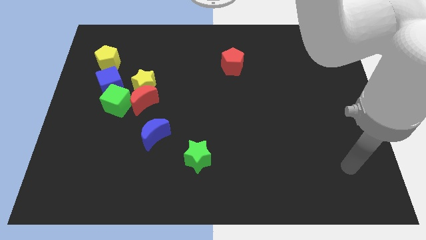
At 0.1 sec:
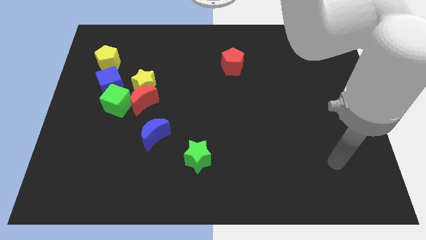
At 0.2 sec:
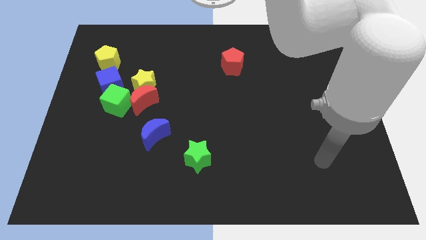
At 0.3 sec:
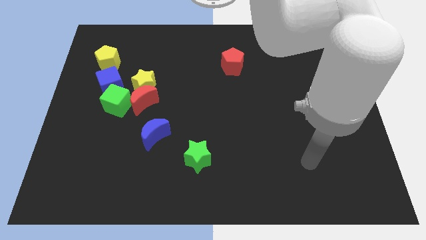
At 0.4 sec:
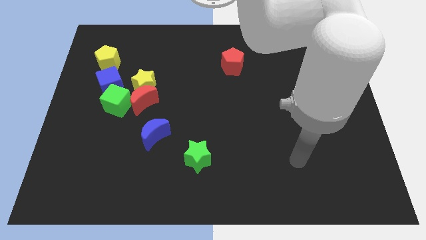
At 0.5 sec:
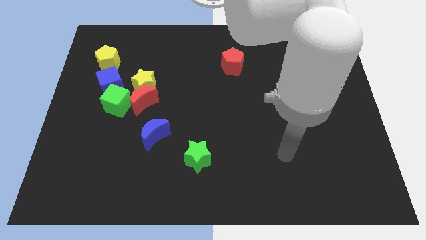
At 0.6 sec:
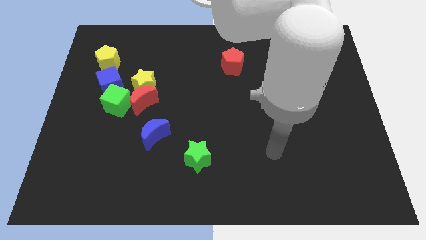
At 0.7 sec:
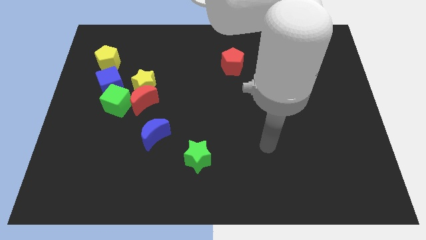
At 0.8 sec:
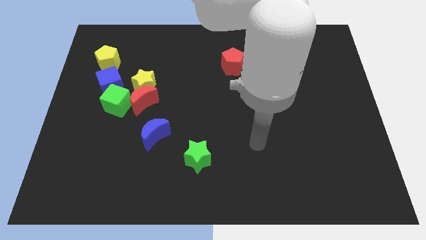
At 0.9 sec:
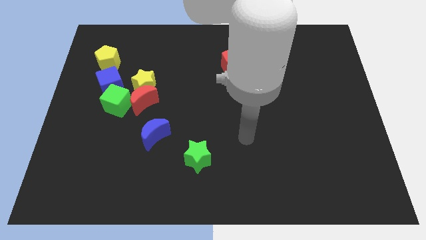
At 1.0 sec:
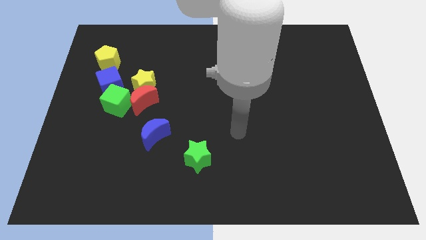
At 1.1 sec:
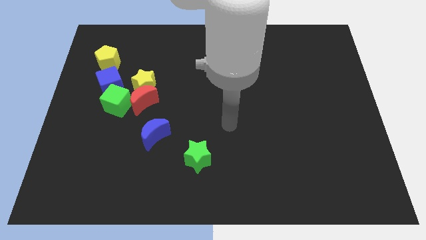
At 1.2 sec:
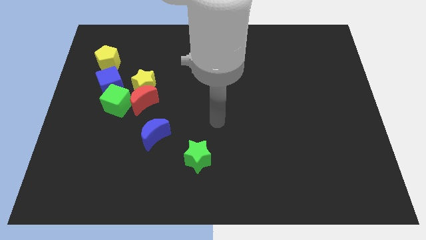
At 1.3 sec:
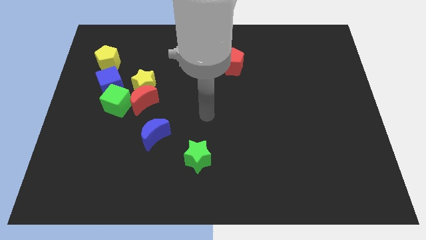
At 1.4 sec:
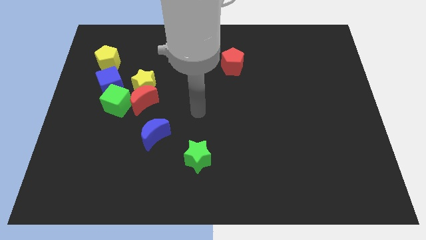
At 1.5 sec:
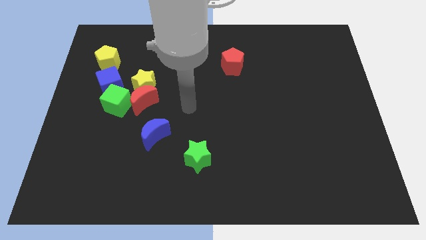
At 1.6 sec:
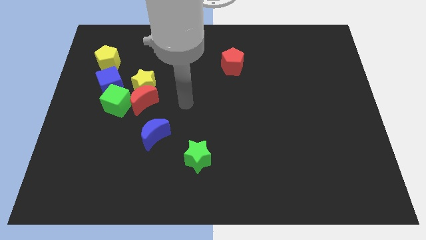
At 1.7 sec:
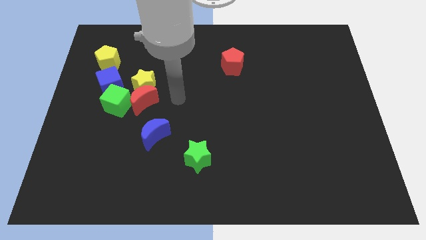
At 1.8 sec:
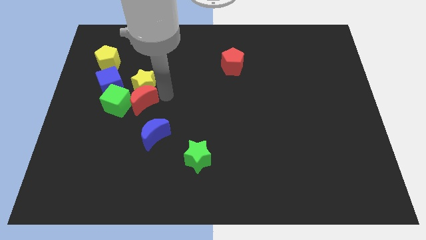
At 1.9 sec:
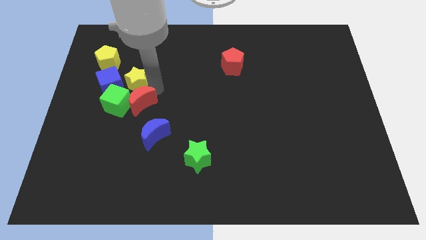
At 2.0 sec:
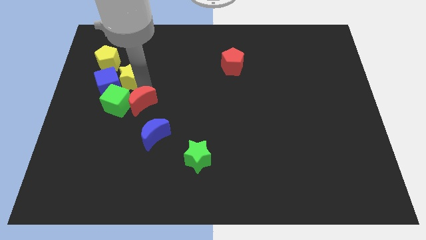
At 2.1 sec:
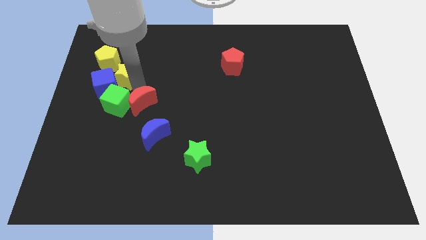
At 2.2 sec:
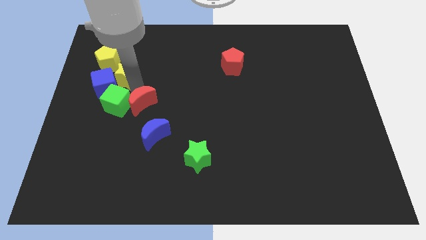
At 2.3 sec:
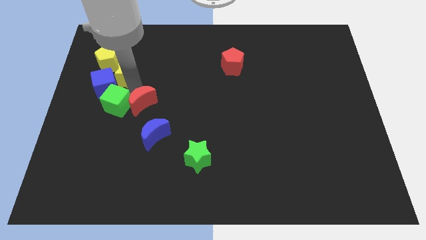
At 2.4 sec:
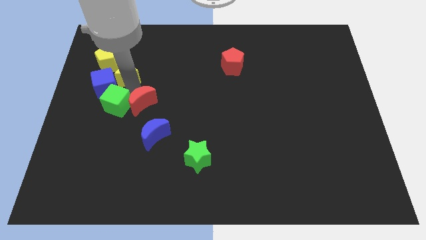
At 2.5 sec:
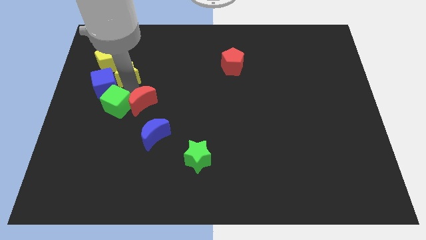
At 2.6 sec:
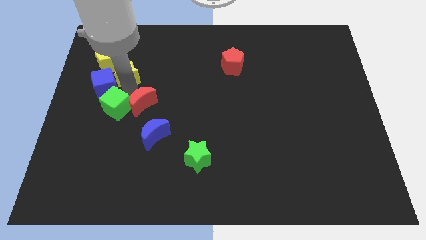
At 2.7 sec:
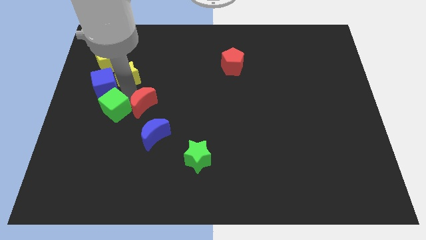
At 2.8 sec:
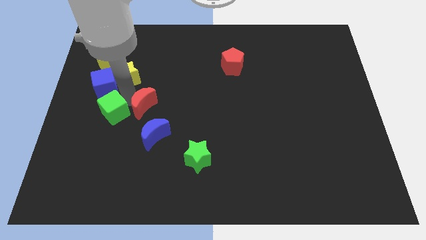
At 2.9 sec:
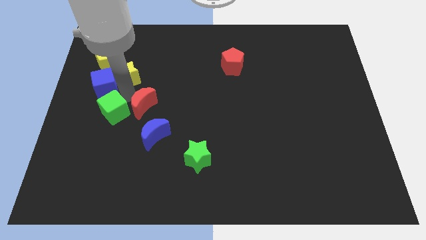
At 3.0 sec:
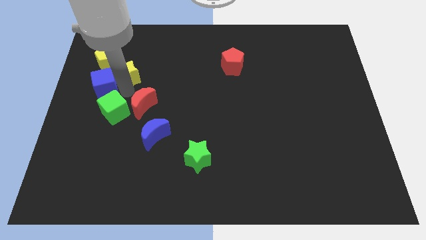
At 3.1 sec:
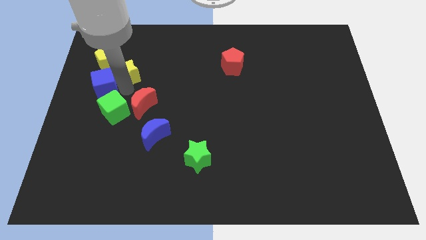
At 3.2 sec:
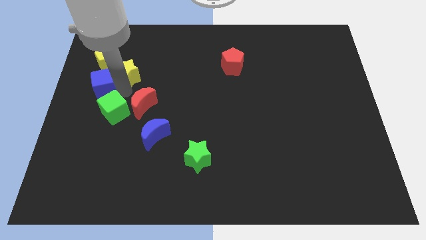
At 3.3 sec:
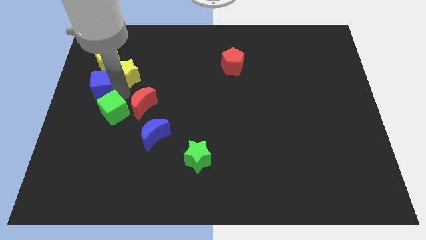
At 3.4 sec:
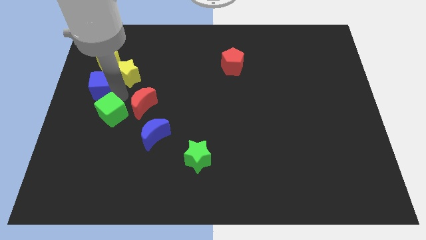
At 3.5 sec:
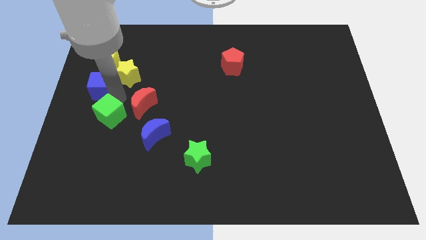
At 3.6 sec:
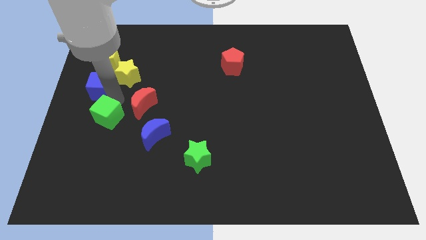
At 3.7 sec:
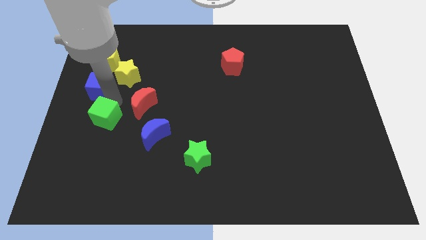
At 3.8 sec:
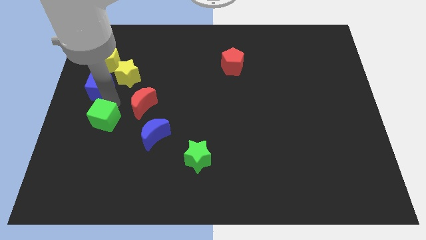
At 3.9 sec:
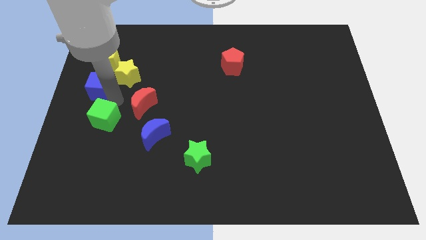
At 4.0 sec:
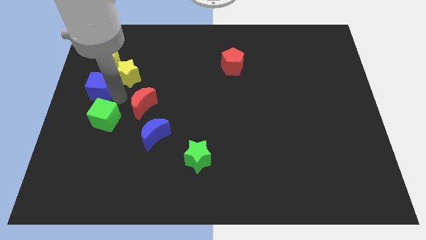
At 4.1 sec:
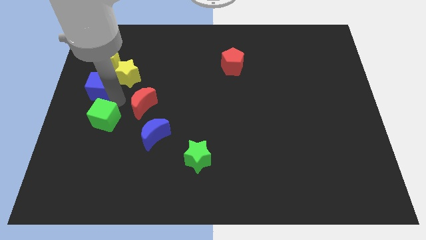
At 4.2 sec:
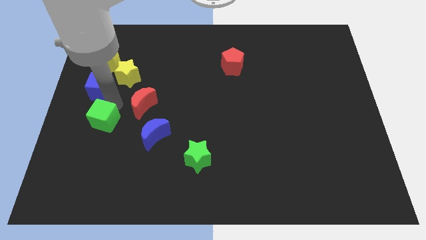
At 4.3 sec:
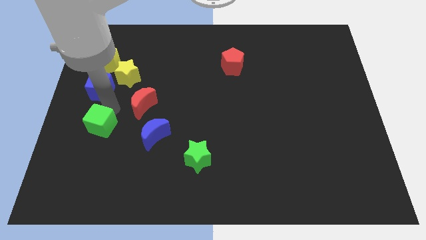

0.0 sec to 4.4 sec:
pull the green cube apart from the red moon, blue cube, and yellow star

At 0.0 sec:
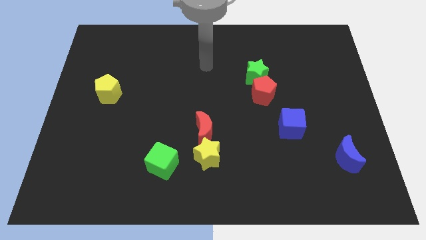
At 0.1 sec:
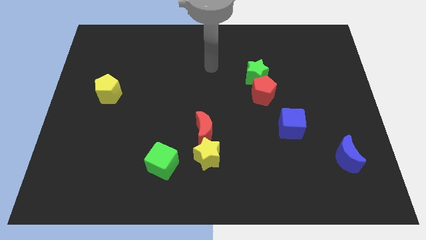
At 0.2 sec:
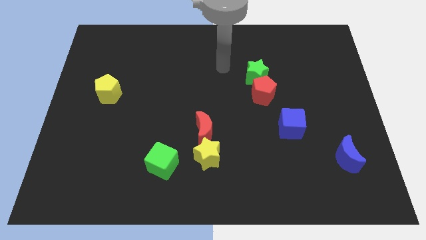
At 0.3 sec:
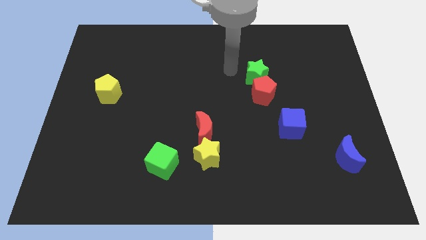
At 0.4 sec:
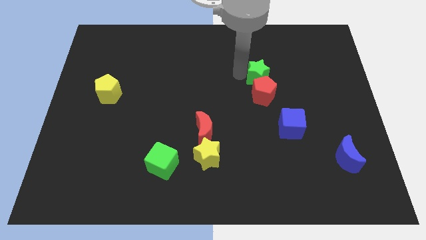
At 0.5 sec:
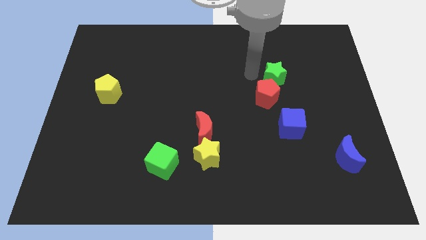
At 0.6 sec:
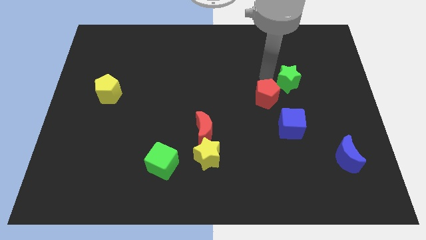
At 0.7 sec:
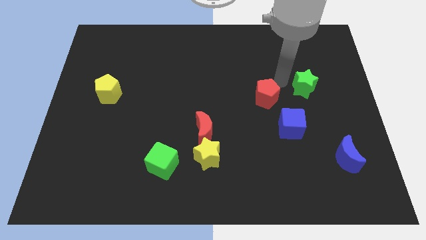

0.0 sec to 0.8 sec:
move the red pentagon away from the green star

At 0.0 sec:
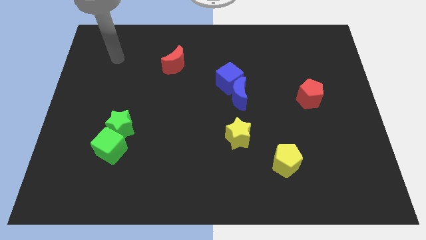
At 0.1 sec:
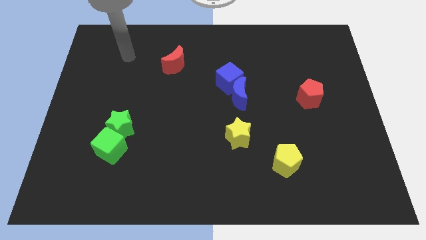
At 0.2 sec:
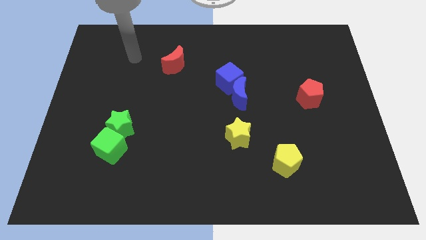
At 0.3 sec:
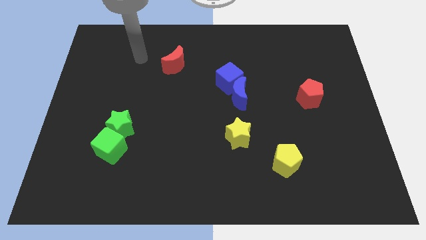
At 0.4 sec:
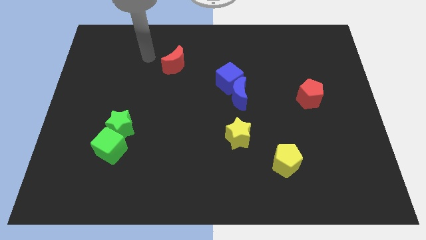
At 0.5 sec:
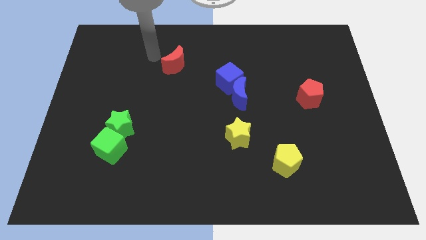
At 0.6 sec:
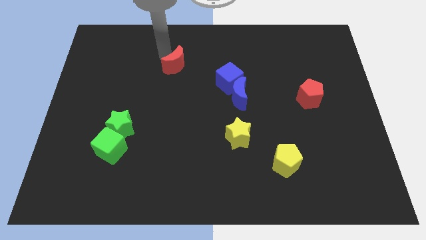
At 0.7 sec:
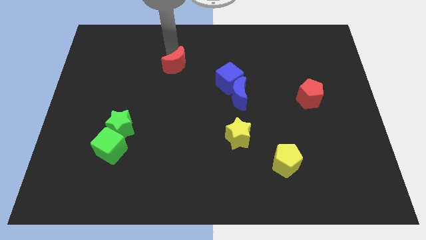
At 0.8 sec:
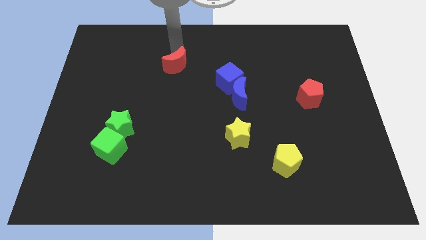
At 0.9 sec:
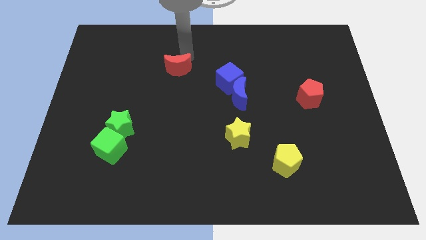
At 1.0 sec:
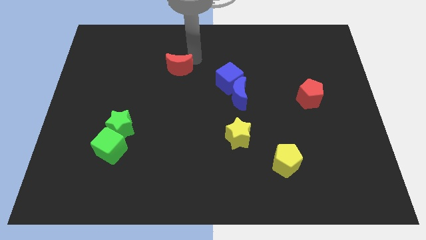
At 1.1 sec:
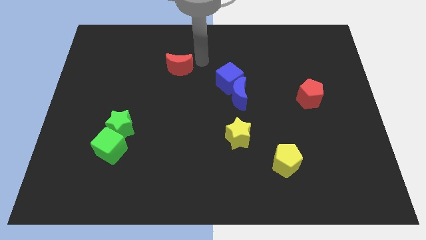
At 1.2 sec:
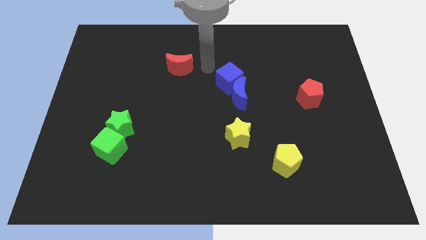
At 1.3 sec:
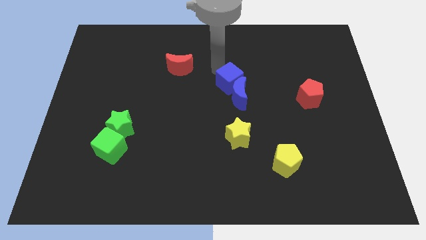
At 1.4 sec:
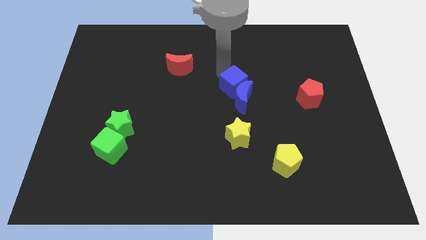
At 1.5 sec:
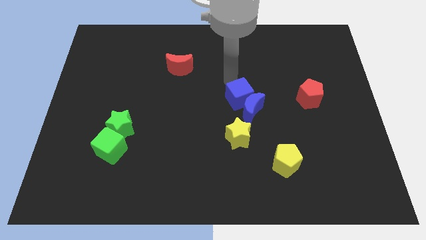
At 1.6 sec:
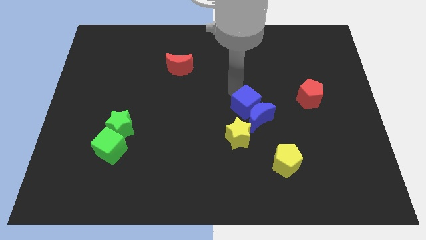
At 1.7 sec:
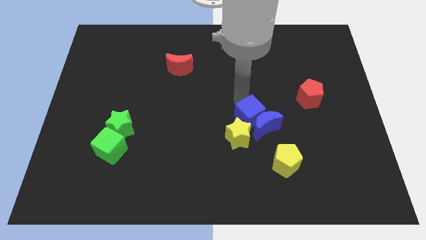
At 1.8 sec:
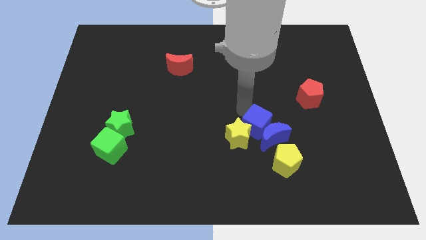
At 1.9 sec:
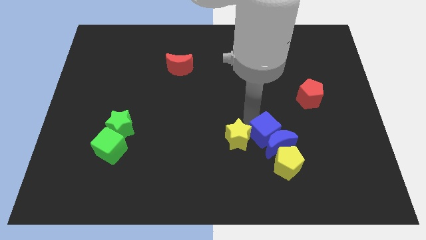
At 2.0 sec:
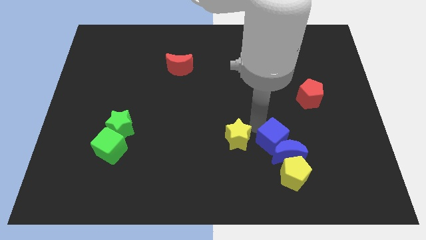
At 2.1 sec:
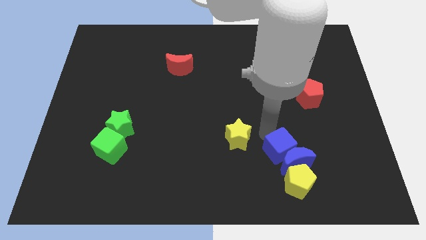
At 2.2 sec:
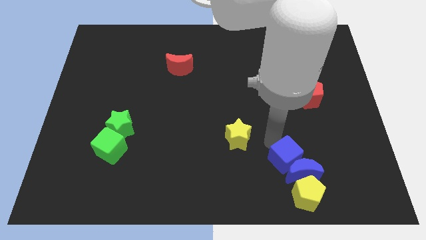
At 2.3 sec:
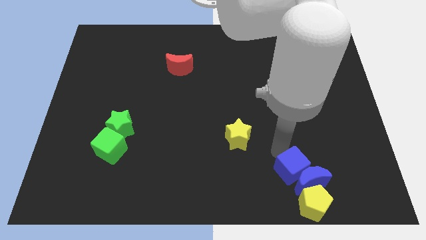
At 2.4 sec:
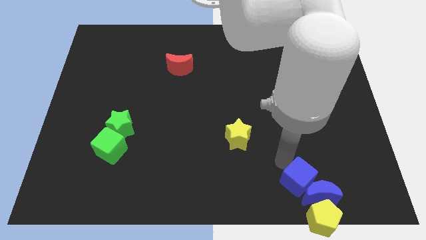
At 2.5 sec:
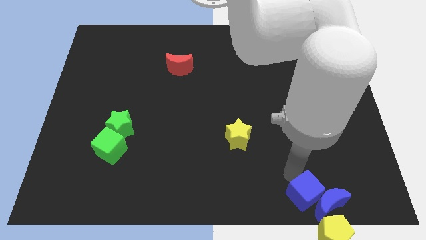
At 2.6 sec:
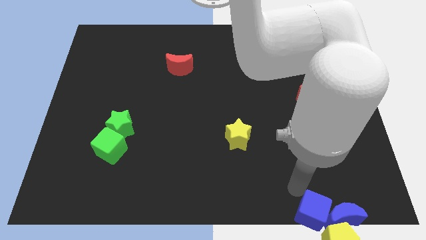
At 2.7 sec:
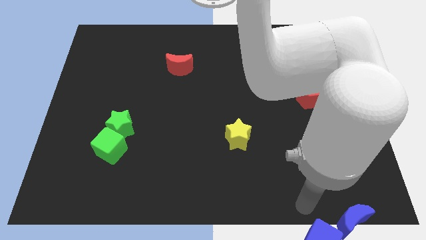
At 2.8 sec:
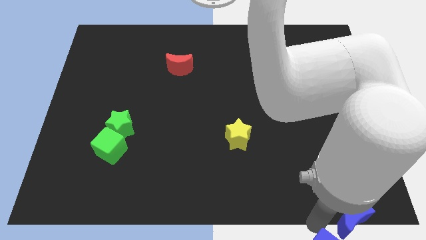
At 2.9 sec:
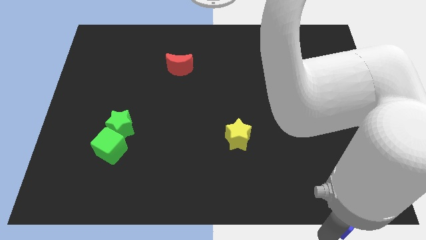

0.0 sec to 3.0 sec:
separate the blue moon from the blue cube

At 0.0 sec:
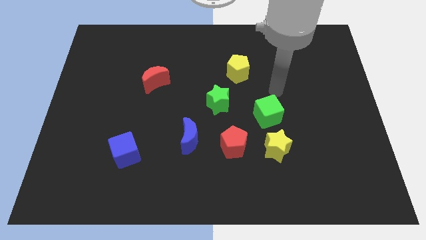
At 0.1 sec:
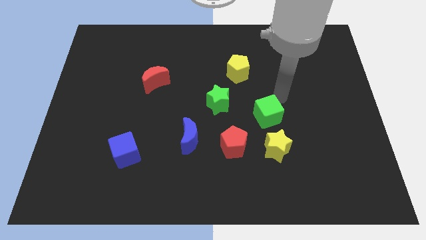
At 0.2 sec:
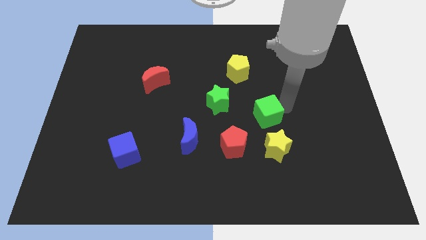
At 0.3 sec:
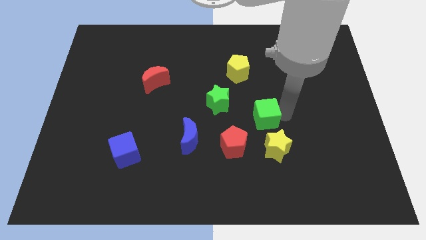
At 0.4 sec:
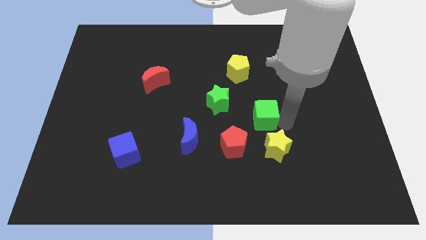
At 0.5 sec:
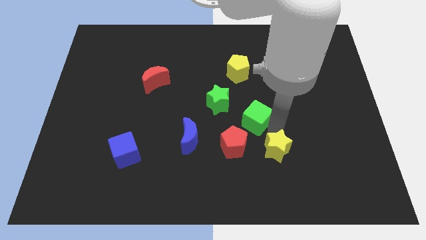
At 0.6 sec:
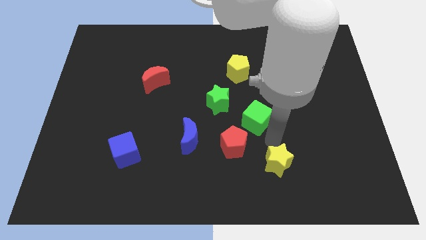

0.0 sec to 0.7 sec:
pull the green cube apart from the yellow star

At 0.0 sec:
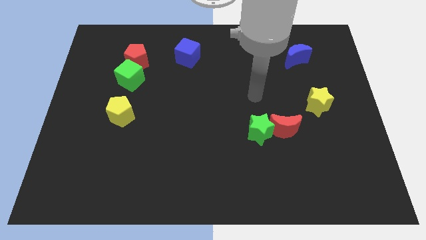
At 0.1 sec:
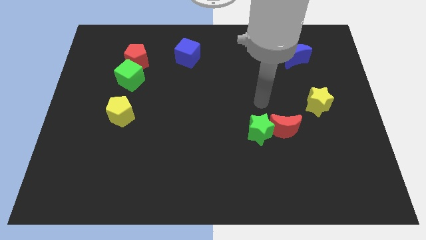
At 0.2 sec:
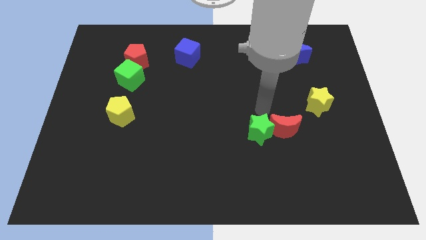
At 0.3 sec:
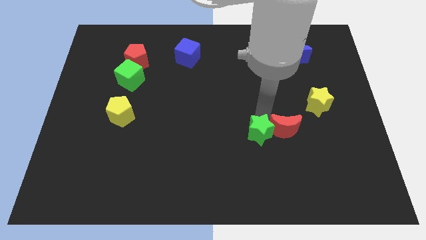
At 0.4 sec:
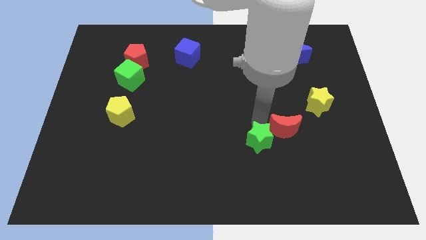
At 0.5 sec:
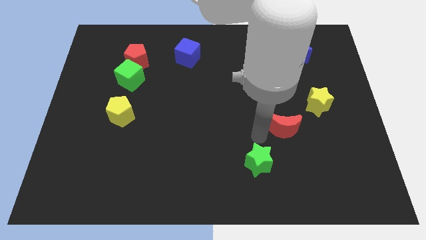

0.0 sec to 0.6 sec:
move the red moon away from the green star
